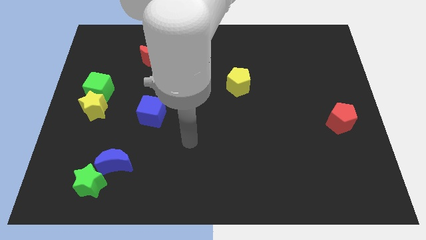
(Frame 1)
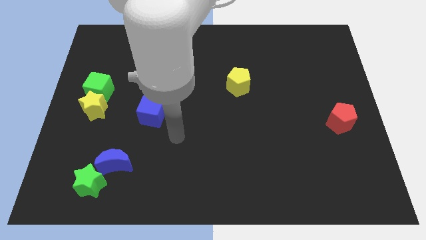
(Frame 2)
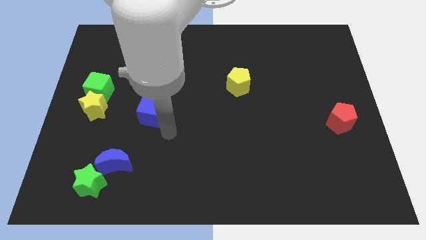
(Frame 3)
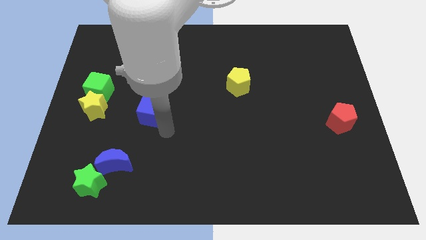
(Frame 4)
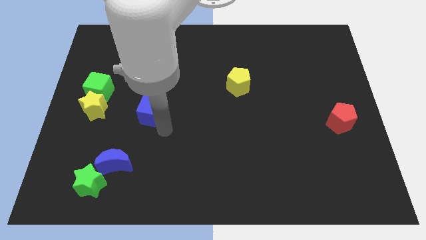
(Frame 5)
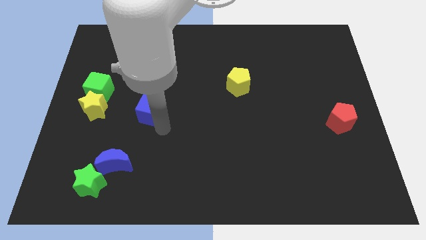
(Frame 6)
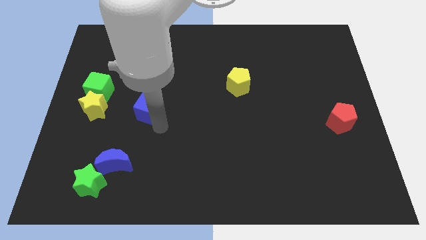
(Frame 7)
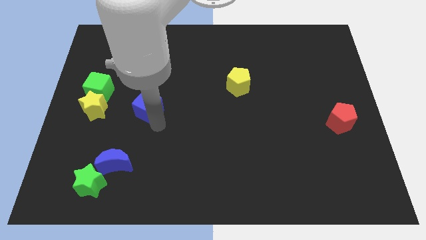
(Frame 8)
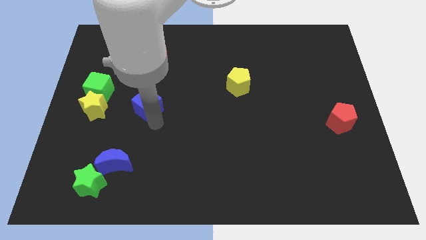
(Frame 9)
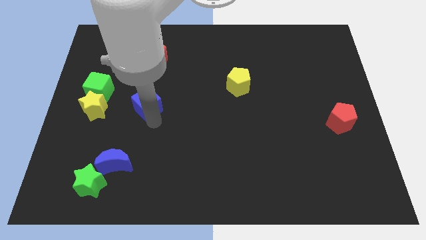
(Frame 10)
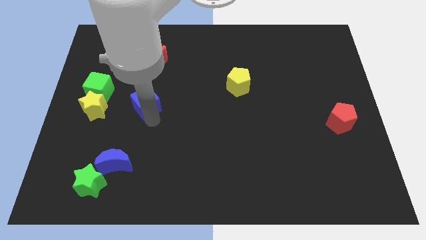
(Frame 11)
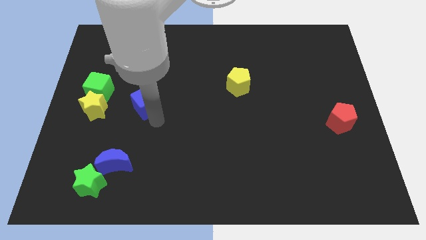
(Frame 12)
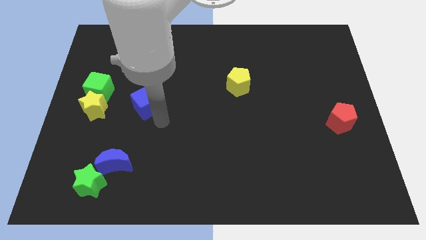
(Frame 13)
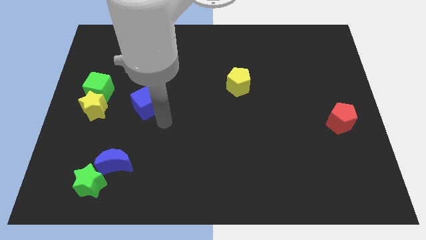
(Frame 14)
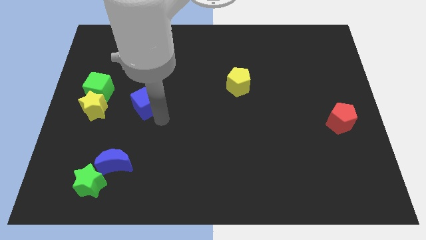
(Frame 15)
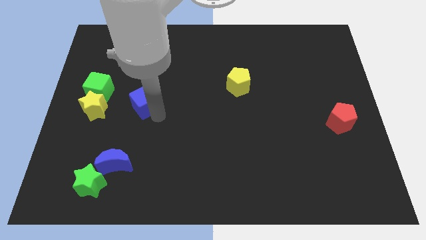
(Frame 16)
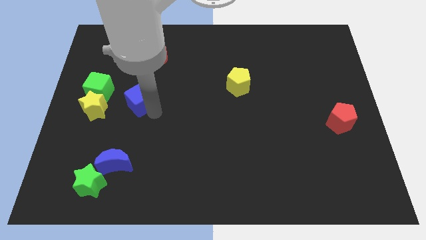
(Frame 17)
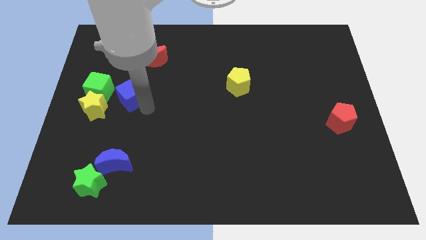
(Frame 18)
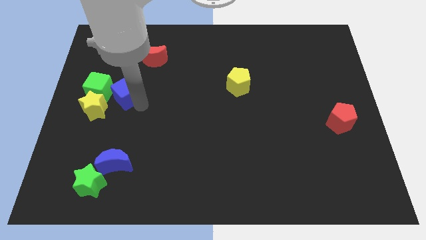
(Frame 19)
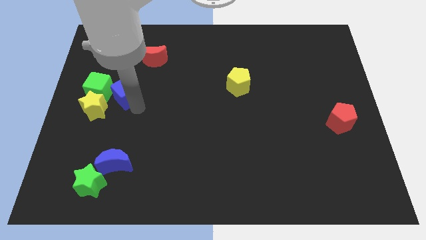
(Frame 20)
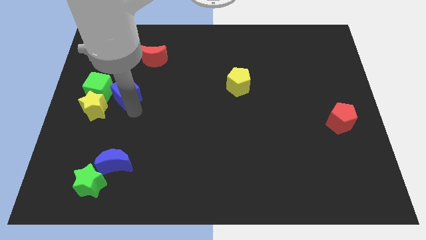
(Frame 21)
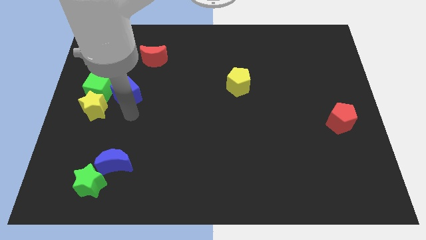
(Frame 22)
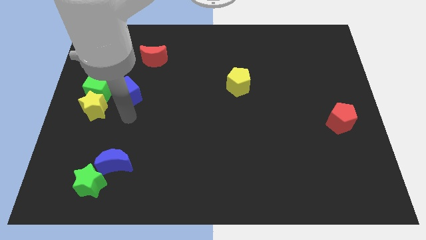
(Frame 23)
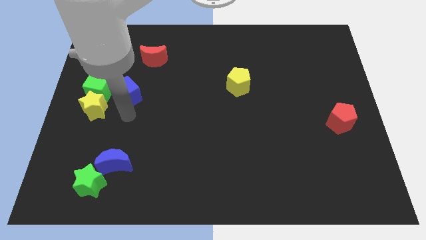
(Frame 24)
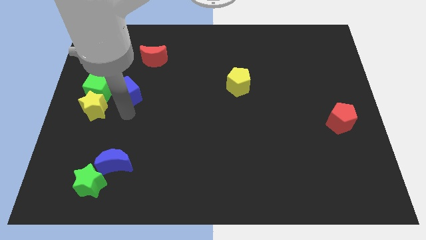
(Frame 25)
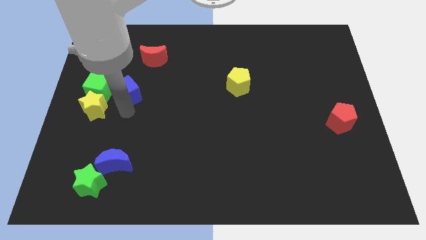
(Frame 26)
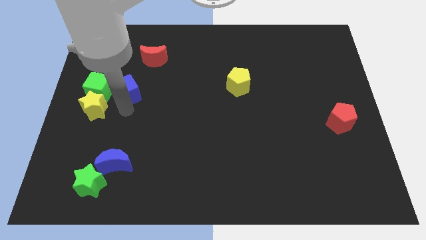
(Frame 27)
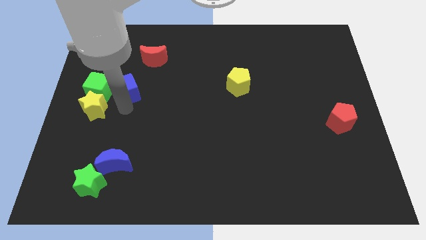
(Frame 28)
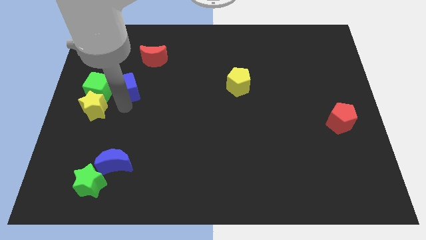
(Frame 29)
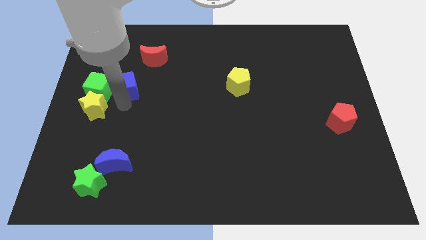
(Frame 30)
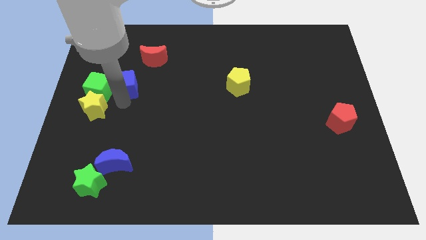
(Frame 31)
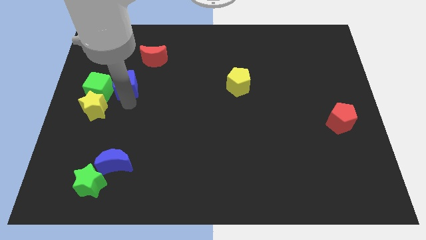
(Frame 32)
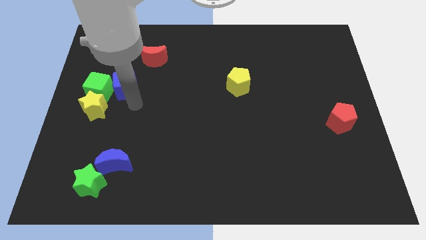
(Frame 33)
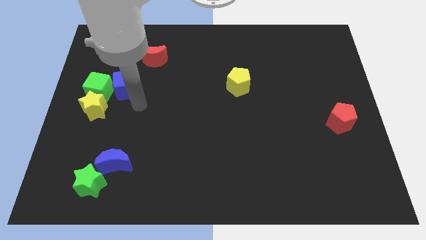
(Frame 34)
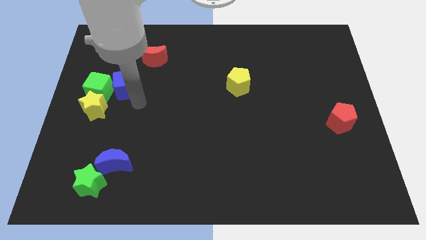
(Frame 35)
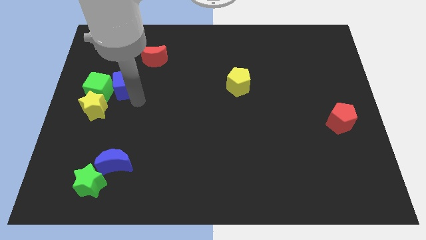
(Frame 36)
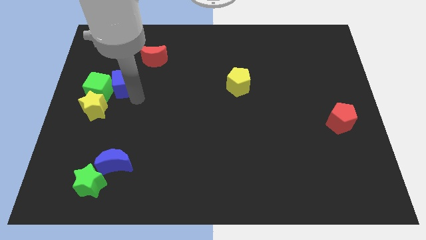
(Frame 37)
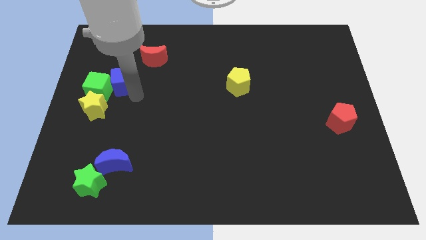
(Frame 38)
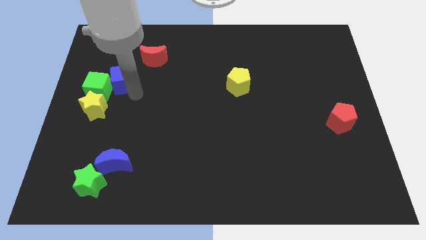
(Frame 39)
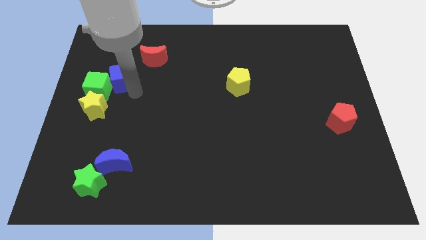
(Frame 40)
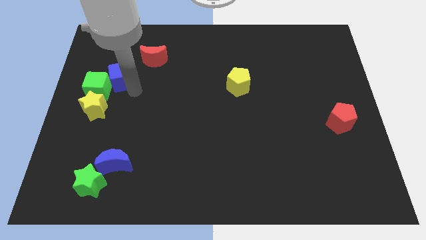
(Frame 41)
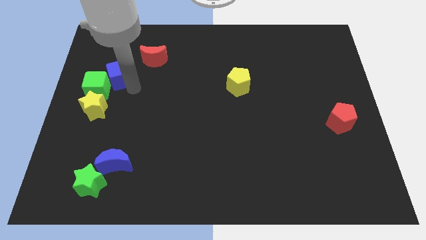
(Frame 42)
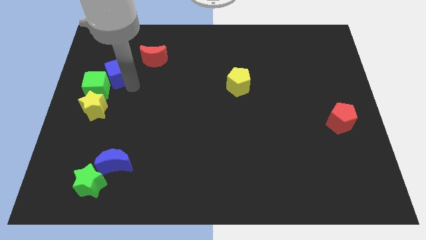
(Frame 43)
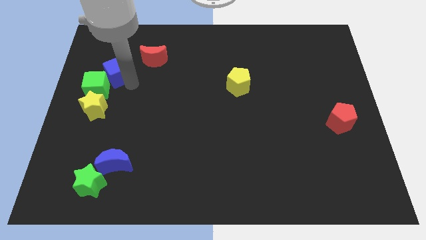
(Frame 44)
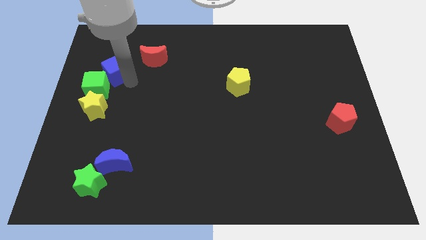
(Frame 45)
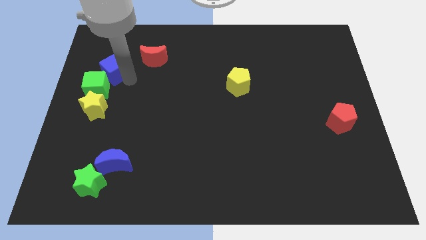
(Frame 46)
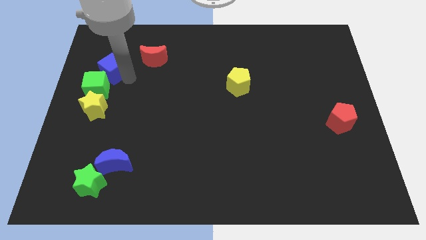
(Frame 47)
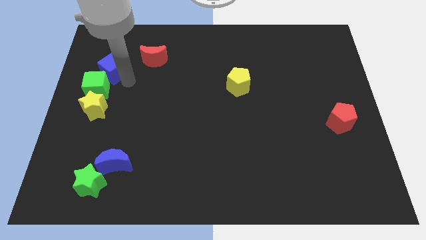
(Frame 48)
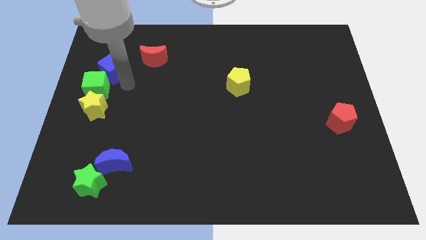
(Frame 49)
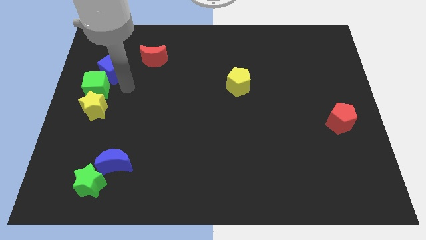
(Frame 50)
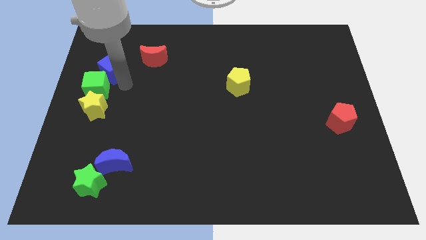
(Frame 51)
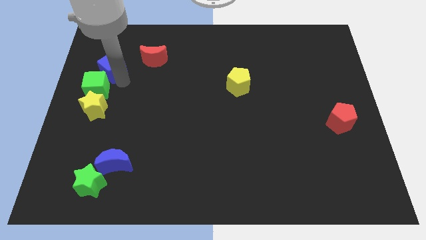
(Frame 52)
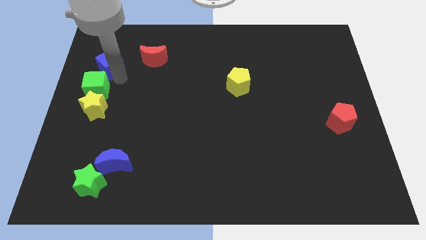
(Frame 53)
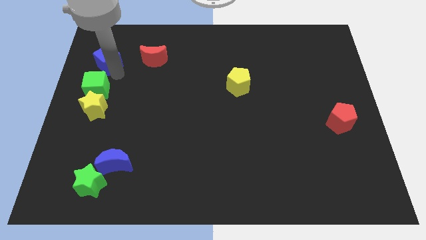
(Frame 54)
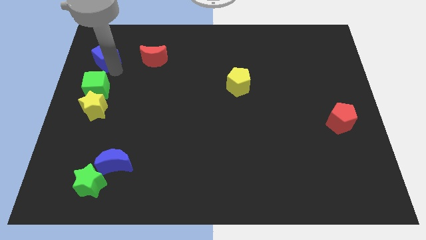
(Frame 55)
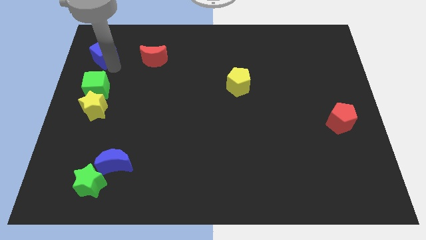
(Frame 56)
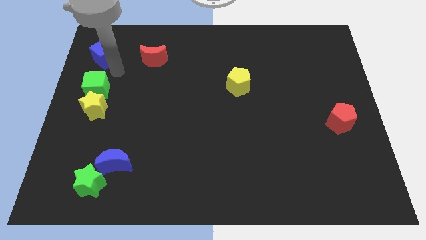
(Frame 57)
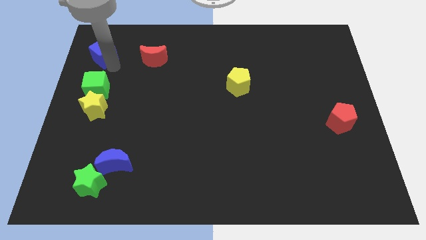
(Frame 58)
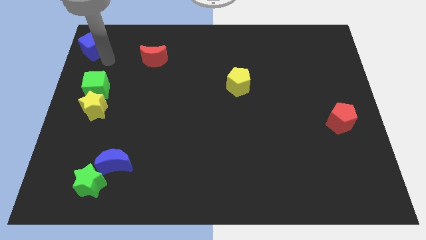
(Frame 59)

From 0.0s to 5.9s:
push the blue cube to the top left of the board
